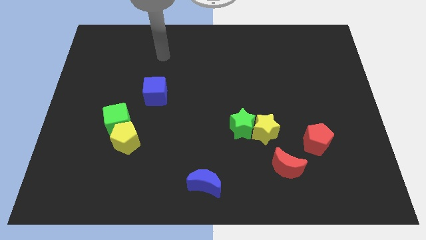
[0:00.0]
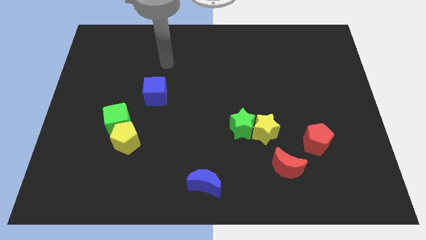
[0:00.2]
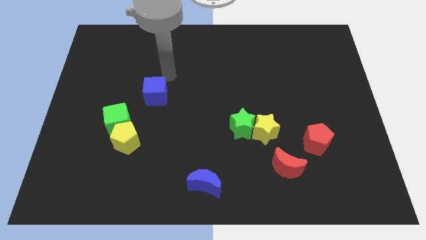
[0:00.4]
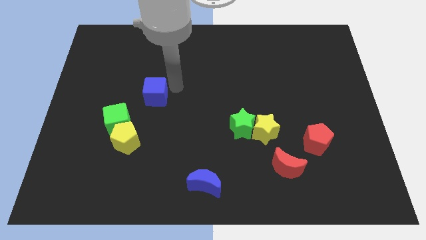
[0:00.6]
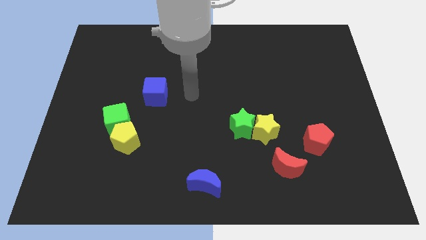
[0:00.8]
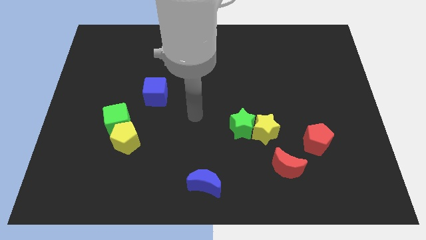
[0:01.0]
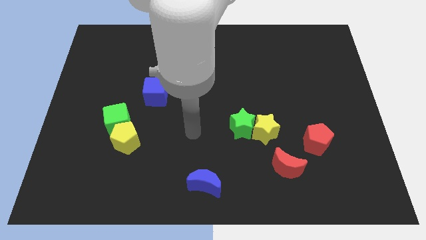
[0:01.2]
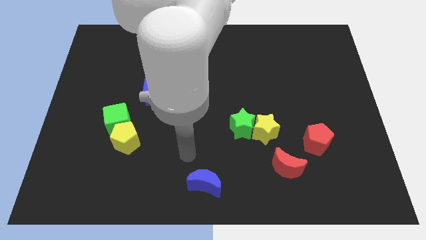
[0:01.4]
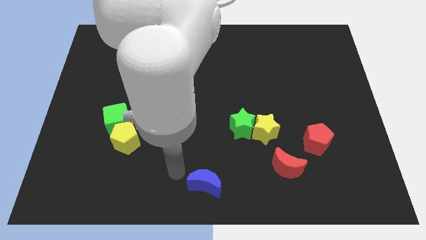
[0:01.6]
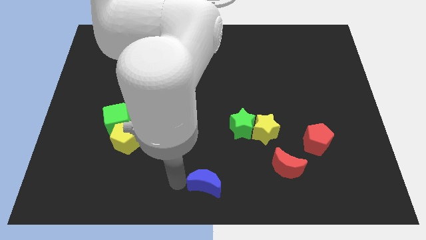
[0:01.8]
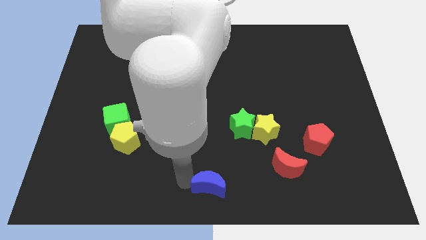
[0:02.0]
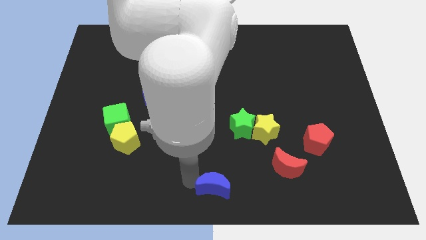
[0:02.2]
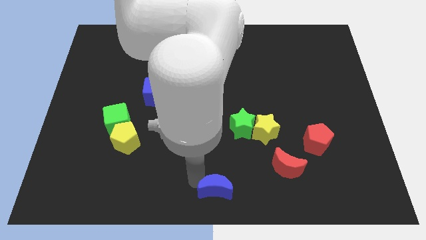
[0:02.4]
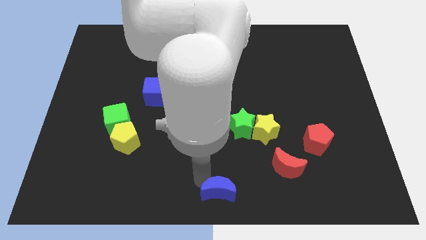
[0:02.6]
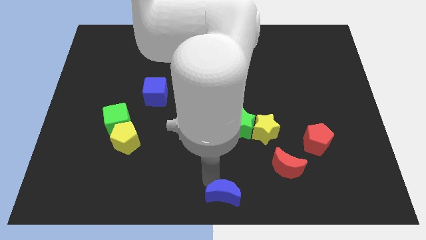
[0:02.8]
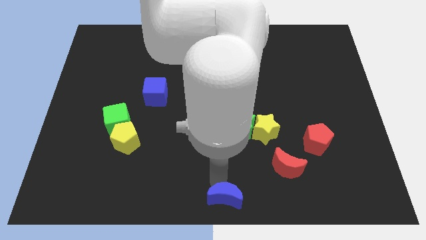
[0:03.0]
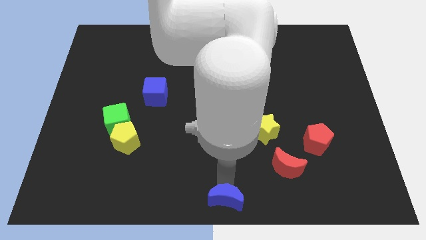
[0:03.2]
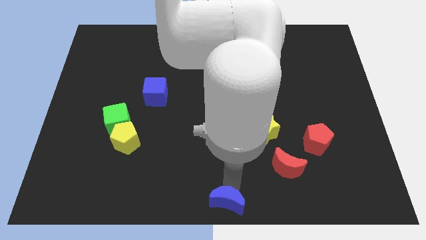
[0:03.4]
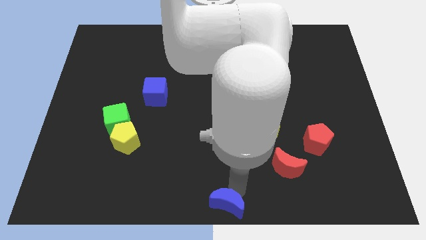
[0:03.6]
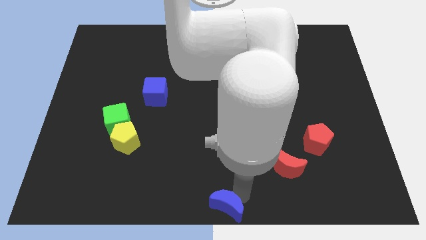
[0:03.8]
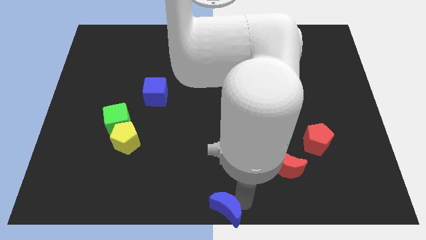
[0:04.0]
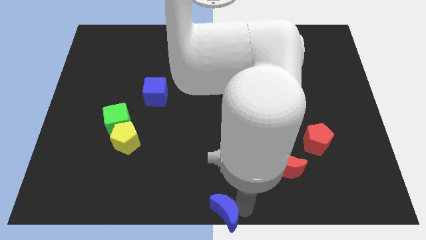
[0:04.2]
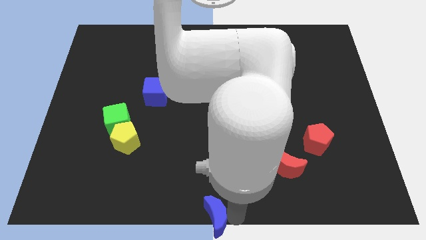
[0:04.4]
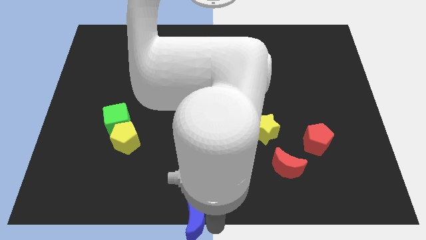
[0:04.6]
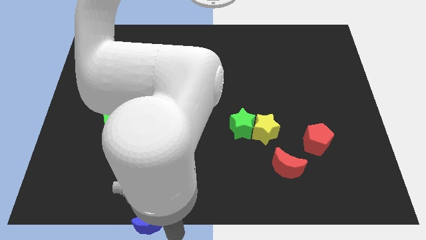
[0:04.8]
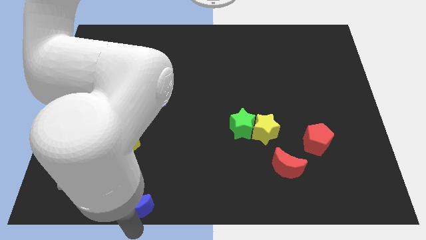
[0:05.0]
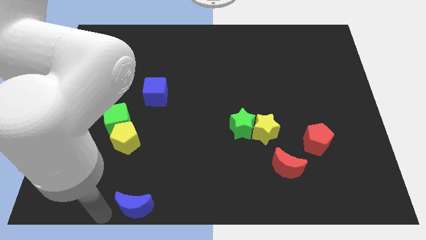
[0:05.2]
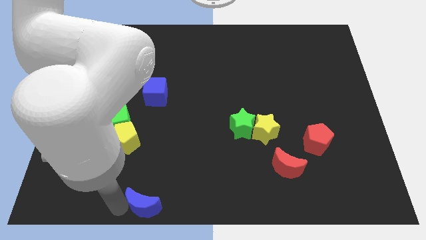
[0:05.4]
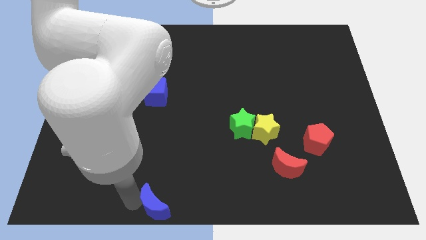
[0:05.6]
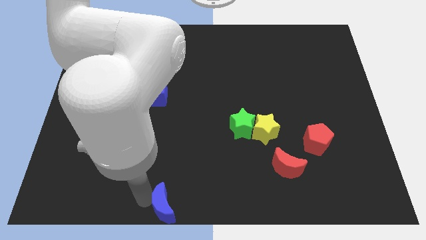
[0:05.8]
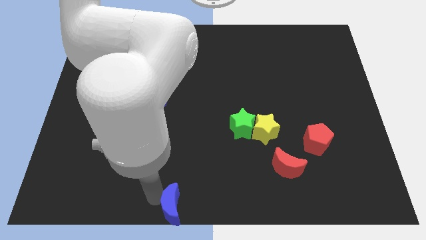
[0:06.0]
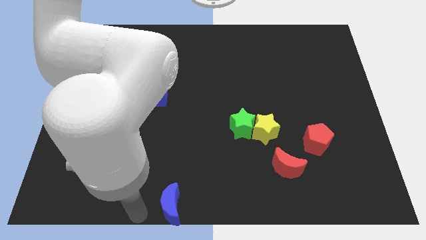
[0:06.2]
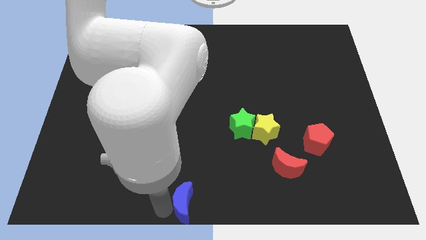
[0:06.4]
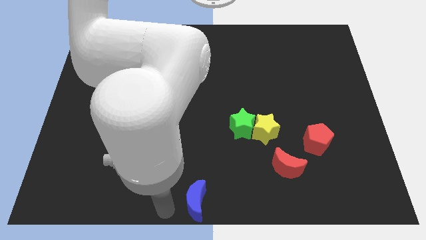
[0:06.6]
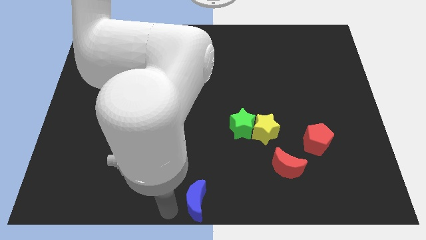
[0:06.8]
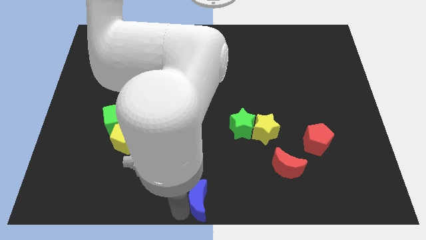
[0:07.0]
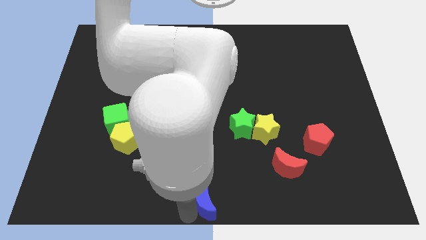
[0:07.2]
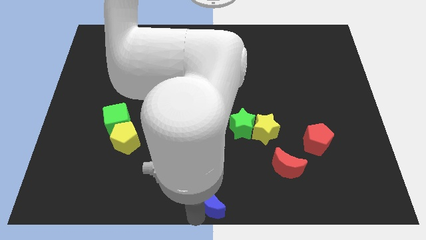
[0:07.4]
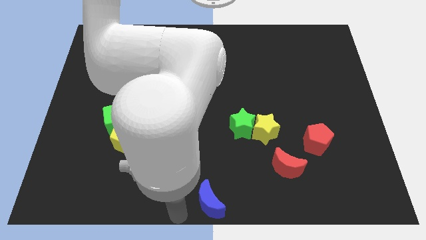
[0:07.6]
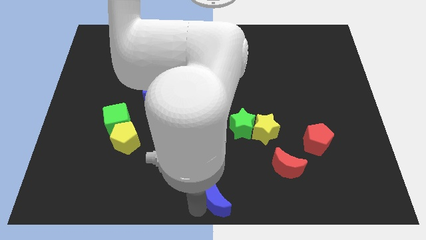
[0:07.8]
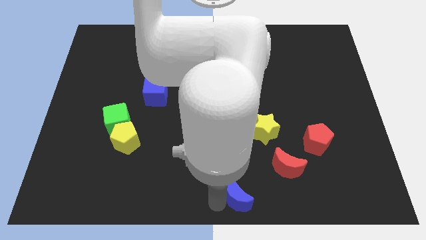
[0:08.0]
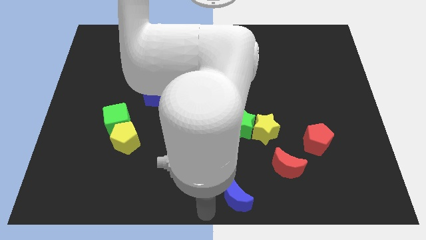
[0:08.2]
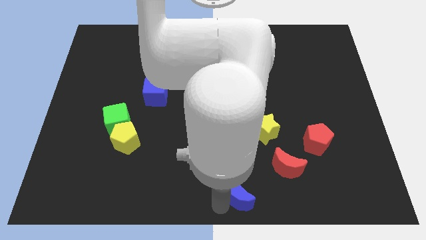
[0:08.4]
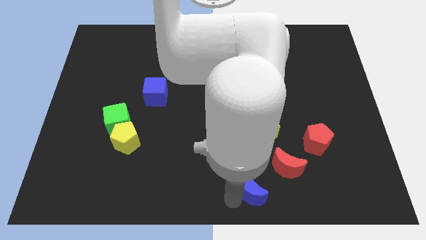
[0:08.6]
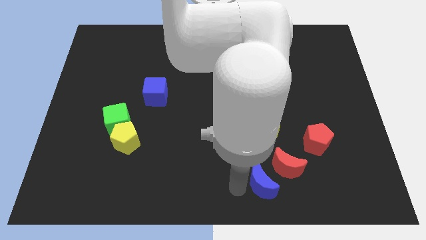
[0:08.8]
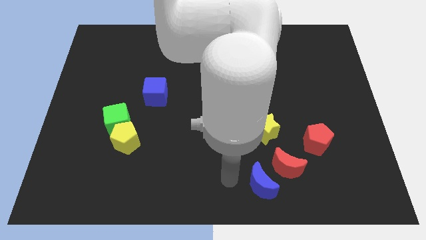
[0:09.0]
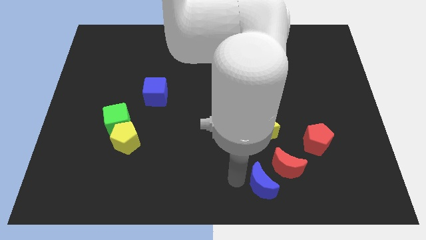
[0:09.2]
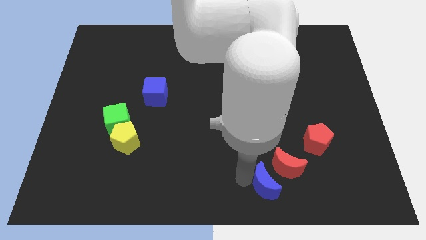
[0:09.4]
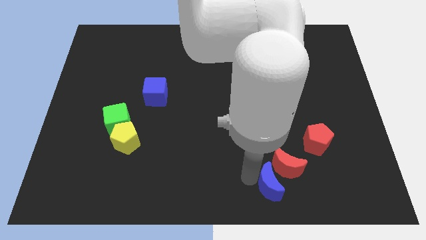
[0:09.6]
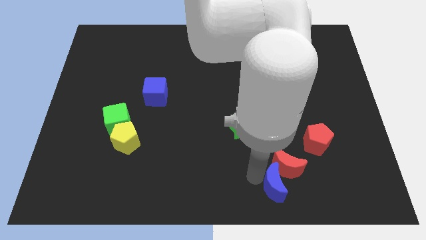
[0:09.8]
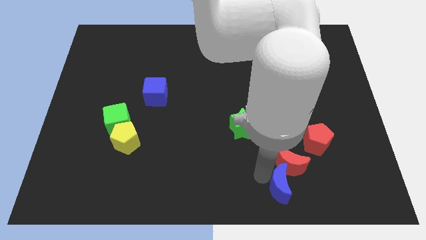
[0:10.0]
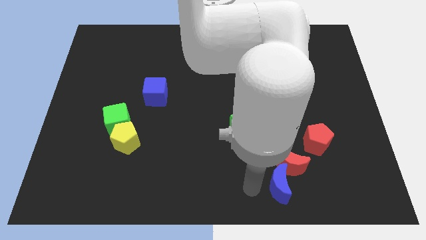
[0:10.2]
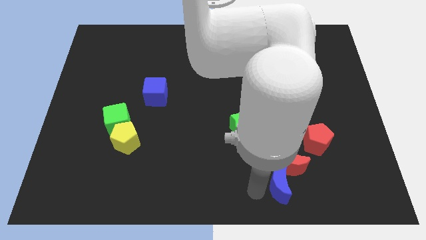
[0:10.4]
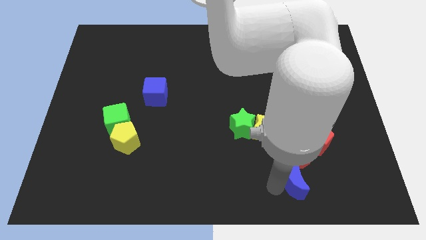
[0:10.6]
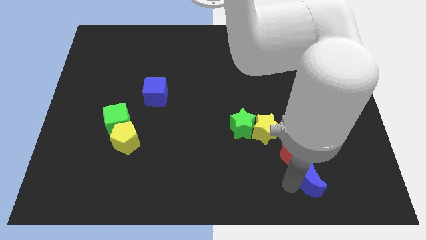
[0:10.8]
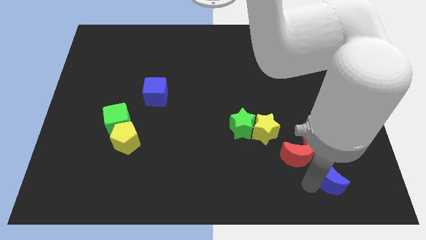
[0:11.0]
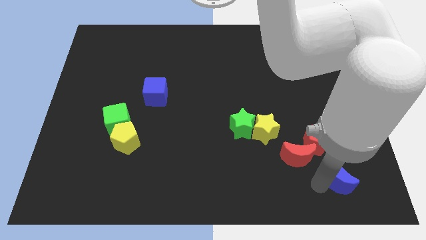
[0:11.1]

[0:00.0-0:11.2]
move the blue moon to the bottom right side of the red pentagon

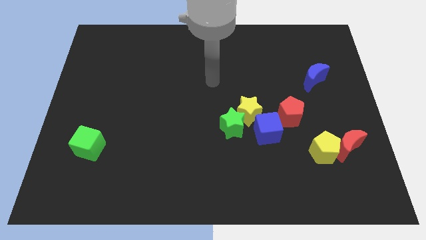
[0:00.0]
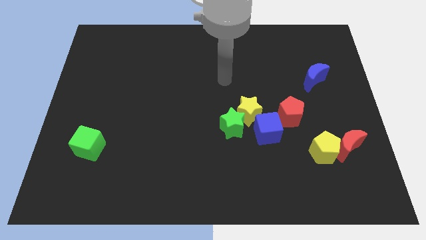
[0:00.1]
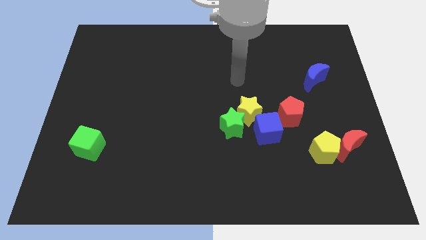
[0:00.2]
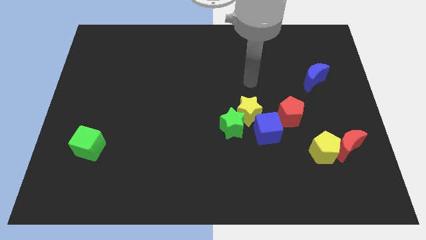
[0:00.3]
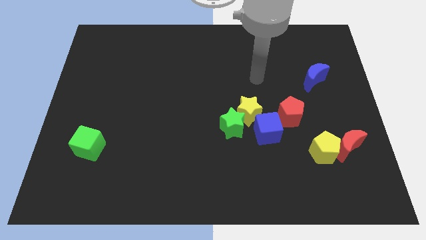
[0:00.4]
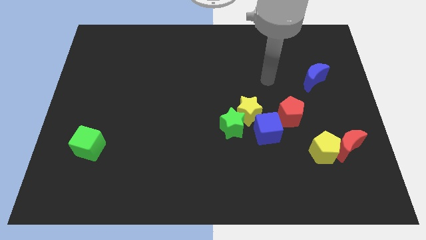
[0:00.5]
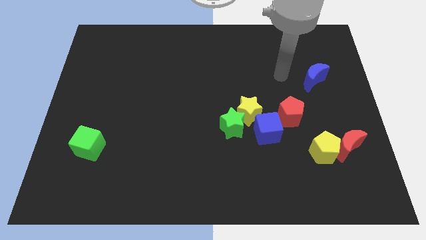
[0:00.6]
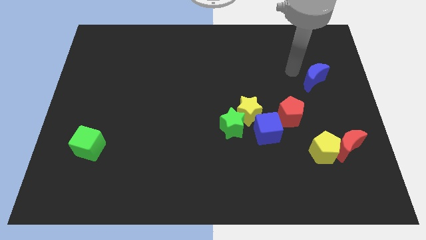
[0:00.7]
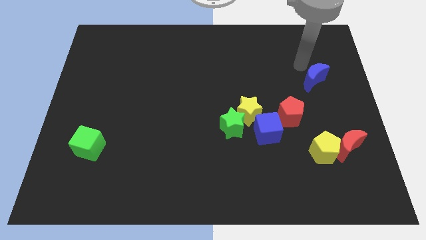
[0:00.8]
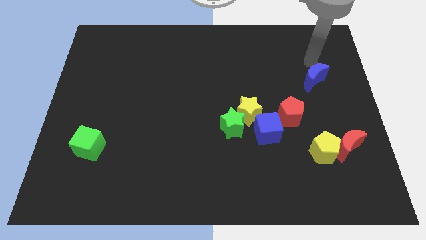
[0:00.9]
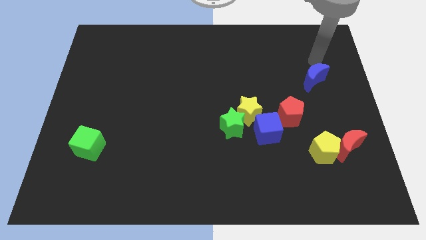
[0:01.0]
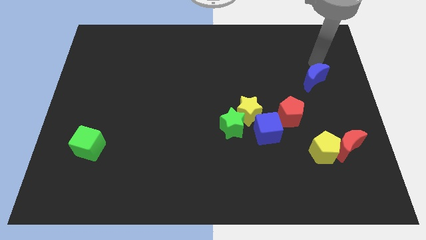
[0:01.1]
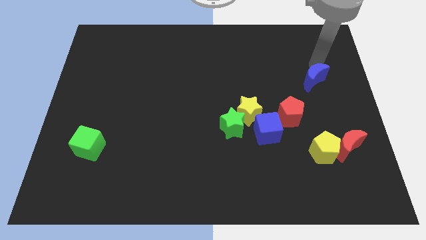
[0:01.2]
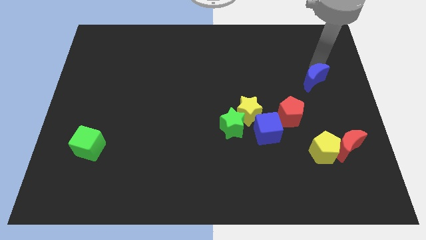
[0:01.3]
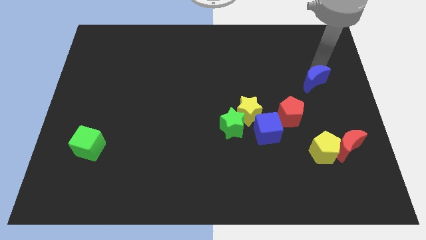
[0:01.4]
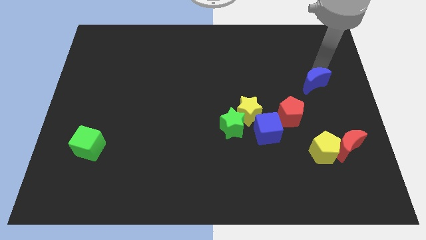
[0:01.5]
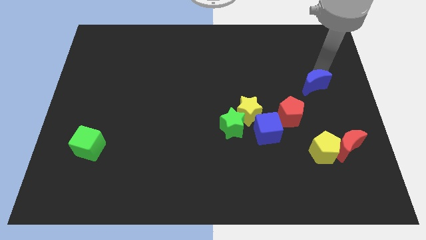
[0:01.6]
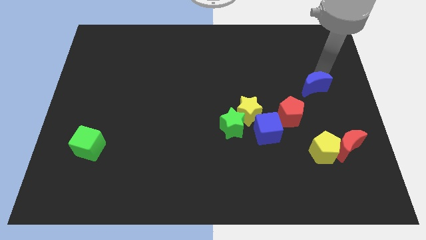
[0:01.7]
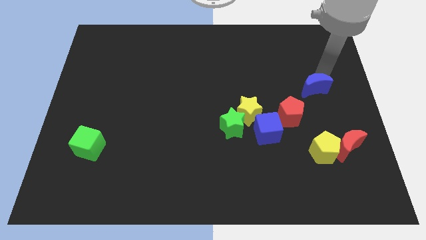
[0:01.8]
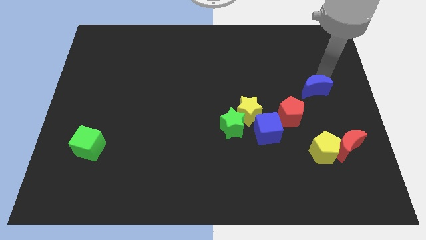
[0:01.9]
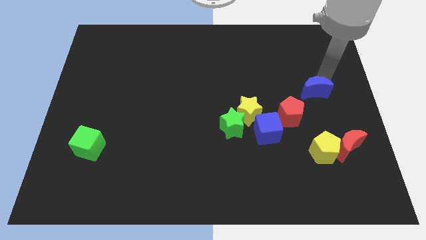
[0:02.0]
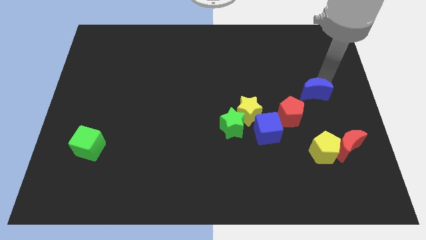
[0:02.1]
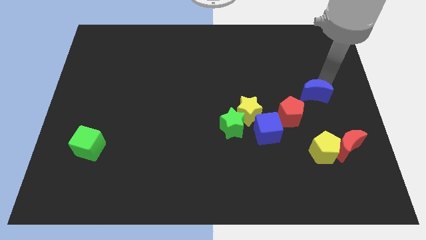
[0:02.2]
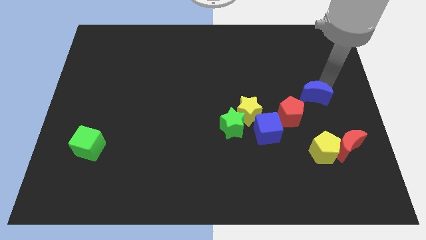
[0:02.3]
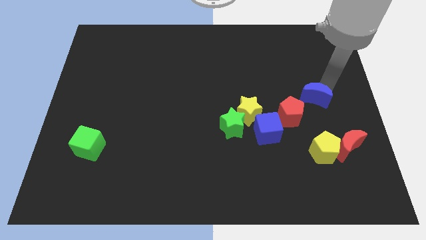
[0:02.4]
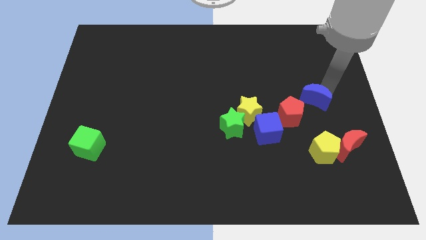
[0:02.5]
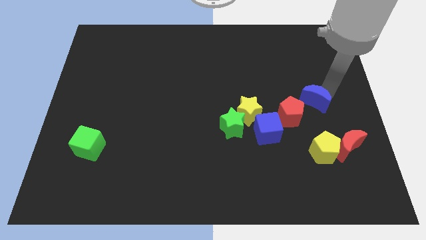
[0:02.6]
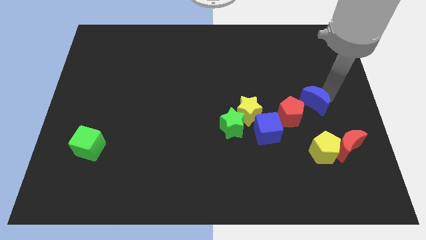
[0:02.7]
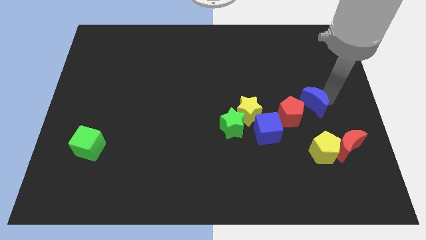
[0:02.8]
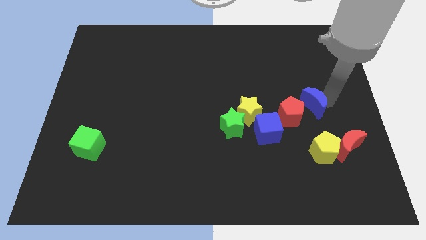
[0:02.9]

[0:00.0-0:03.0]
push the blue moon to the right side of the yellow star
